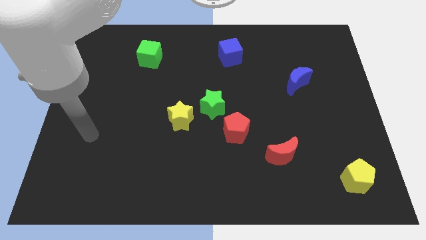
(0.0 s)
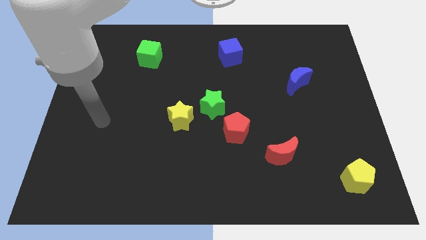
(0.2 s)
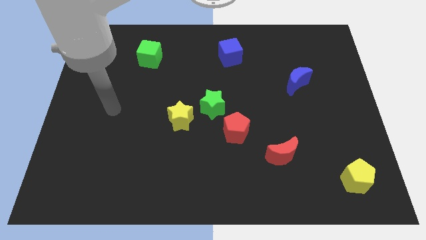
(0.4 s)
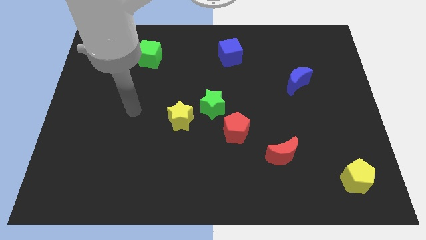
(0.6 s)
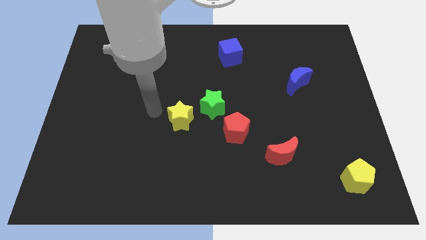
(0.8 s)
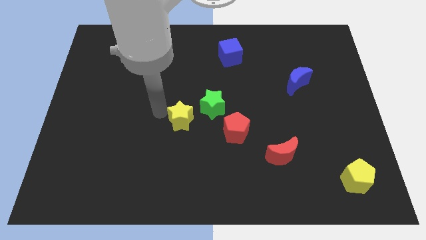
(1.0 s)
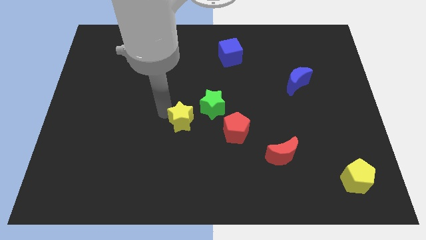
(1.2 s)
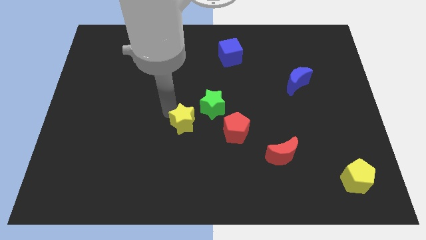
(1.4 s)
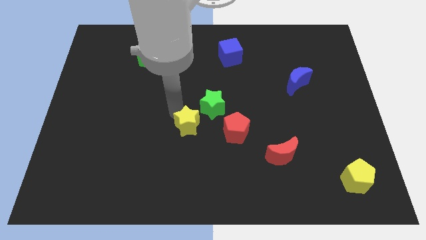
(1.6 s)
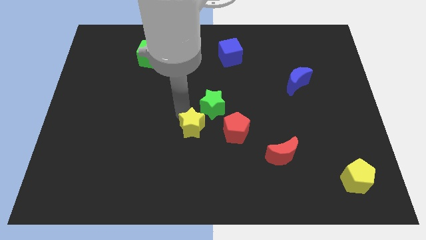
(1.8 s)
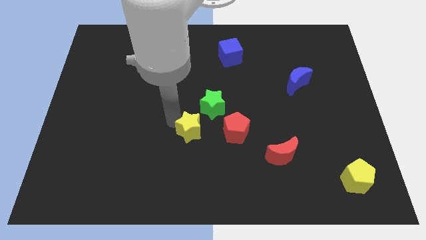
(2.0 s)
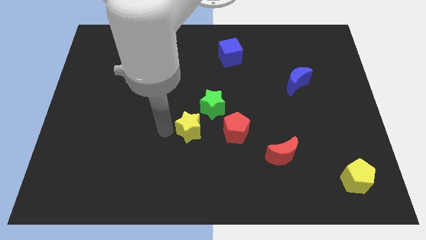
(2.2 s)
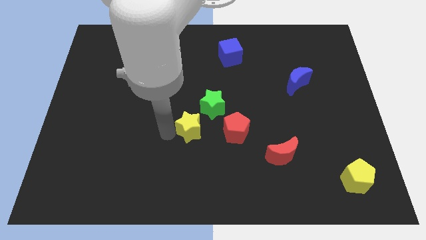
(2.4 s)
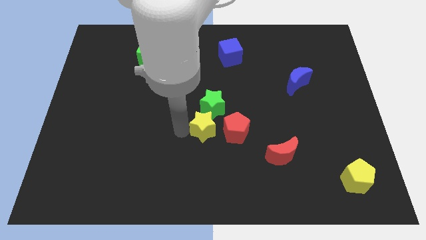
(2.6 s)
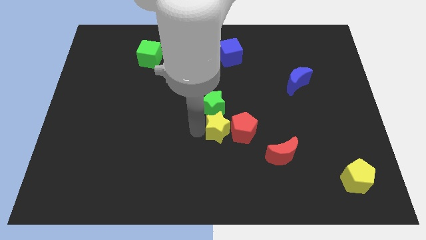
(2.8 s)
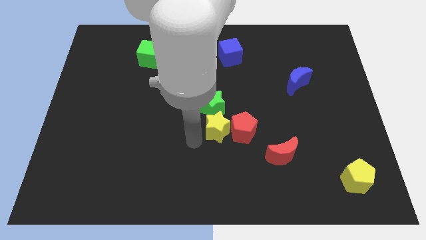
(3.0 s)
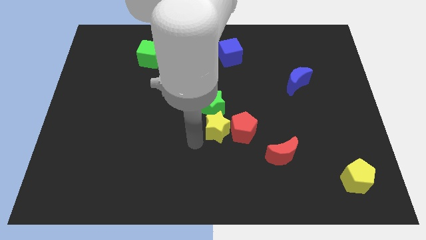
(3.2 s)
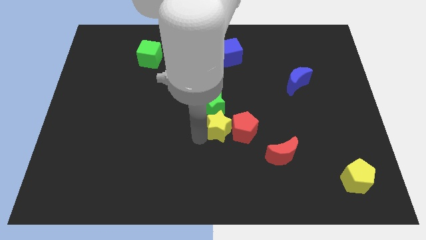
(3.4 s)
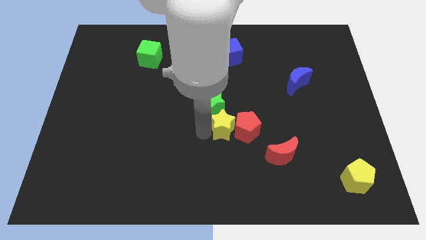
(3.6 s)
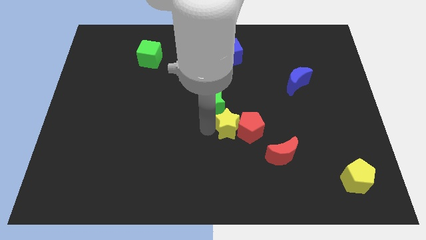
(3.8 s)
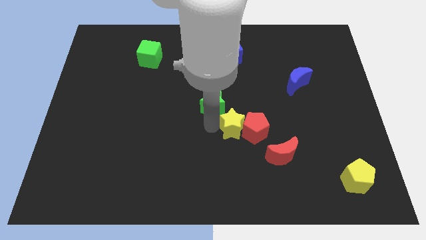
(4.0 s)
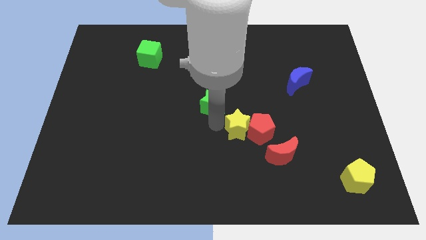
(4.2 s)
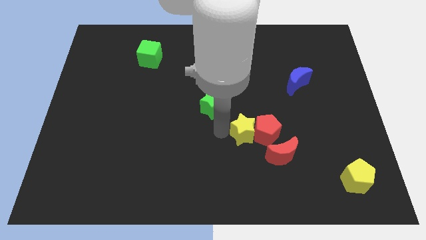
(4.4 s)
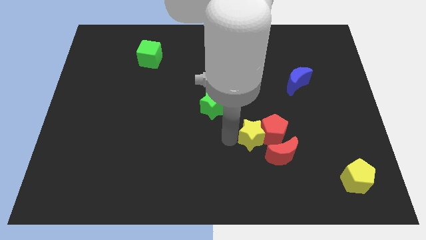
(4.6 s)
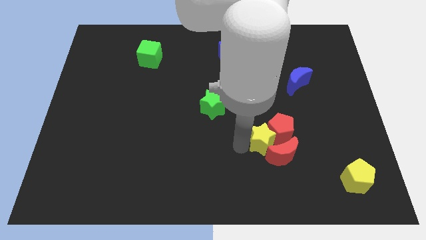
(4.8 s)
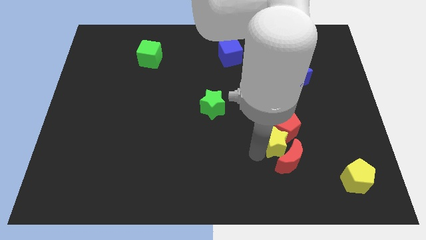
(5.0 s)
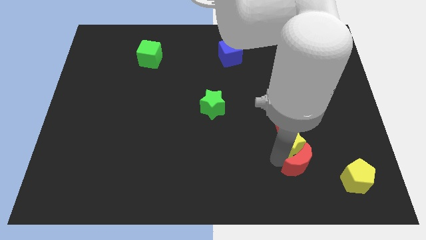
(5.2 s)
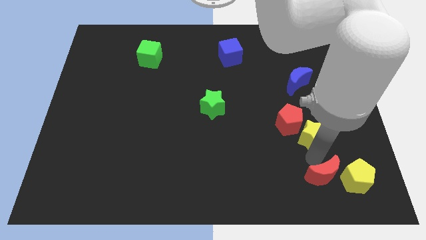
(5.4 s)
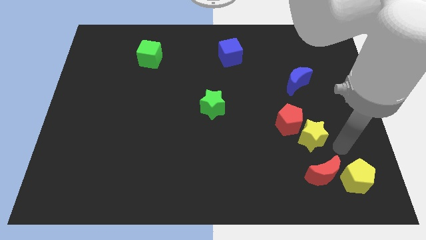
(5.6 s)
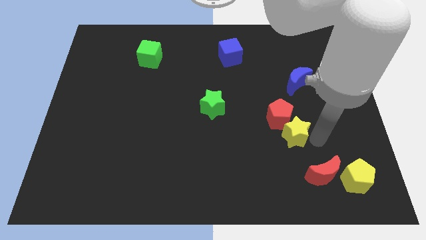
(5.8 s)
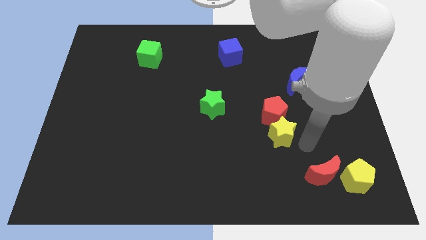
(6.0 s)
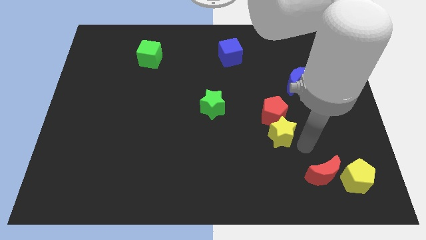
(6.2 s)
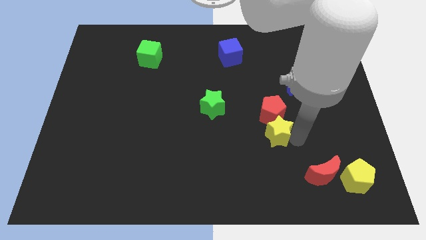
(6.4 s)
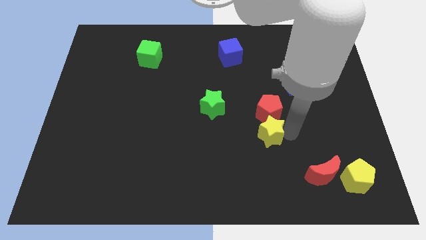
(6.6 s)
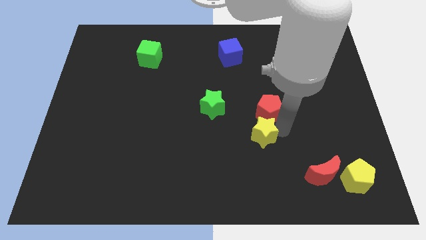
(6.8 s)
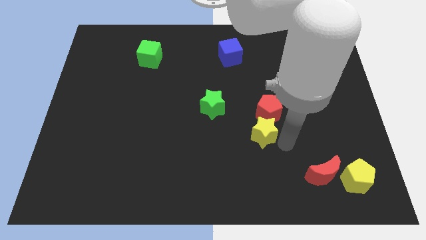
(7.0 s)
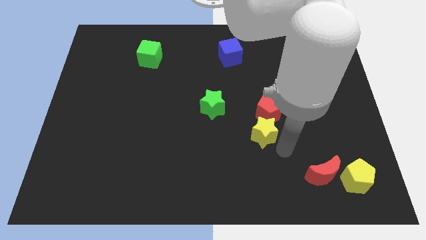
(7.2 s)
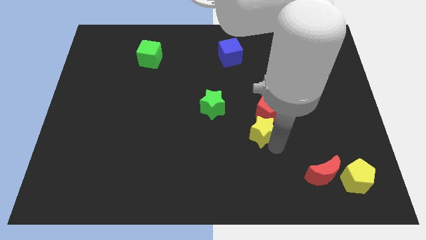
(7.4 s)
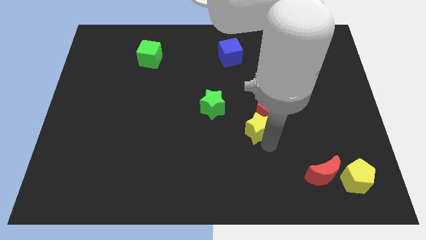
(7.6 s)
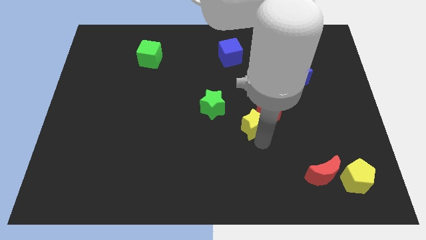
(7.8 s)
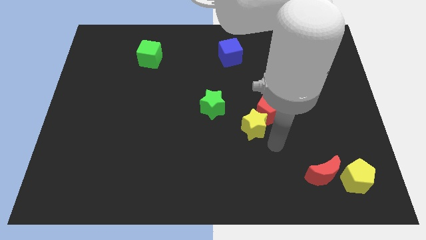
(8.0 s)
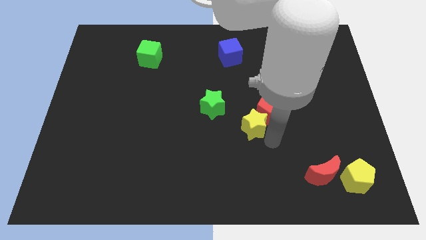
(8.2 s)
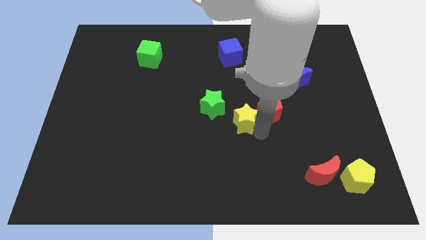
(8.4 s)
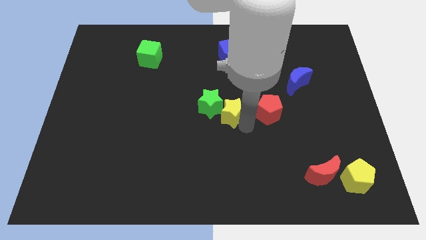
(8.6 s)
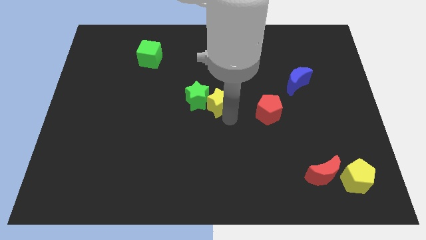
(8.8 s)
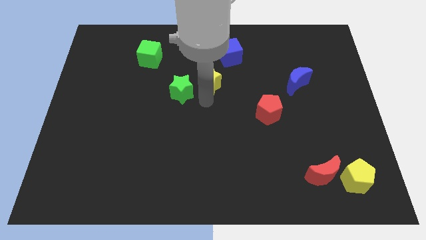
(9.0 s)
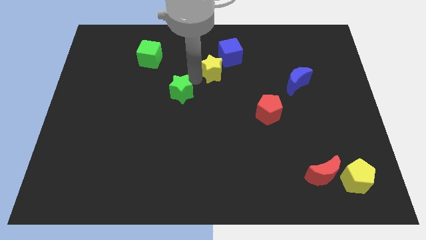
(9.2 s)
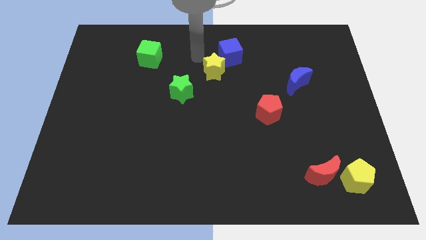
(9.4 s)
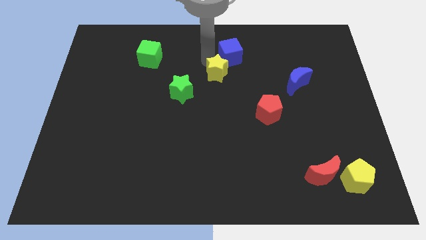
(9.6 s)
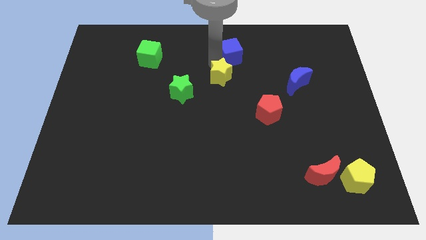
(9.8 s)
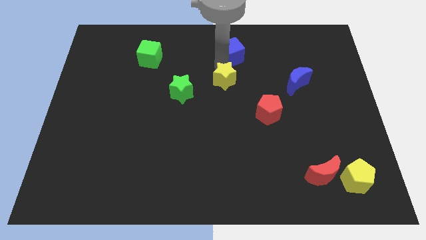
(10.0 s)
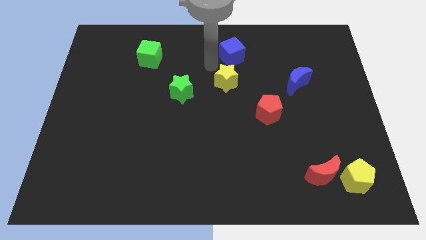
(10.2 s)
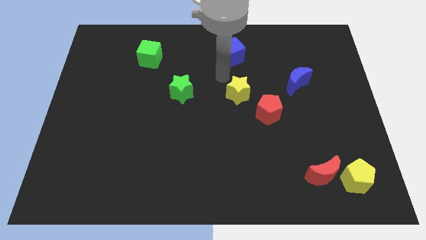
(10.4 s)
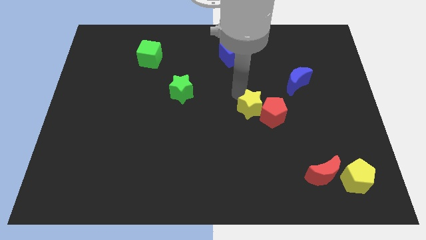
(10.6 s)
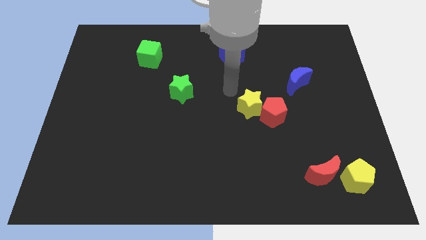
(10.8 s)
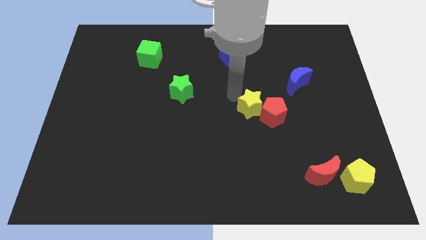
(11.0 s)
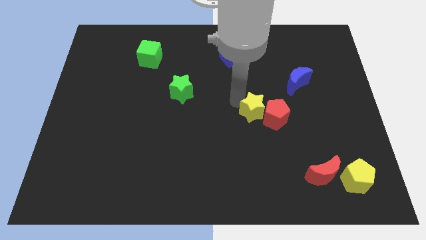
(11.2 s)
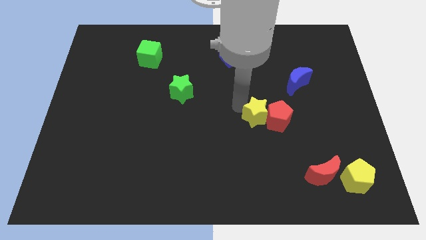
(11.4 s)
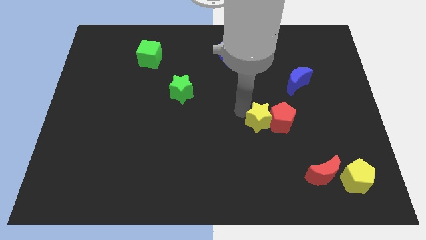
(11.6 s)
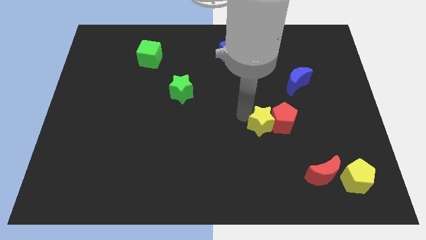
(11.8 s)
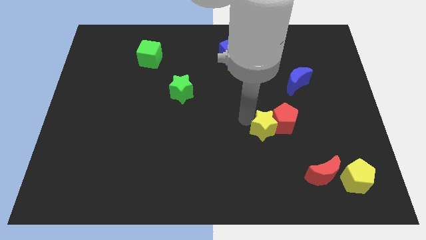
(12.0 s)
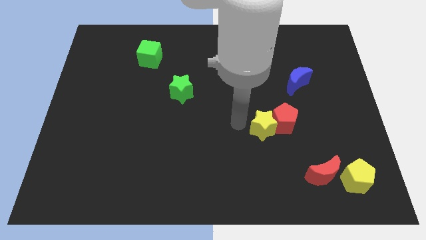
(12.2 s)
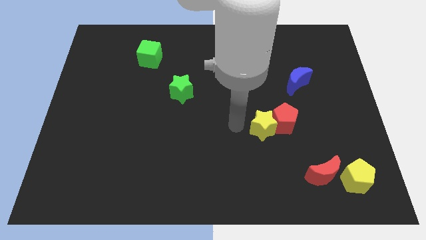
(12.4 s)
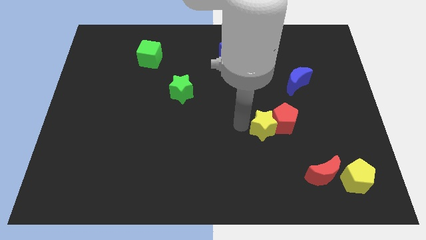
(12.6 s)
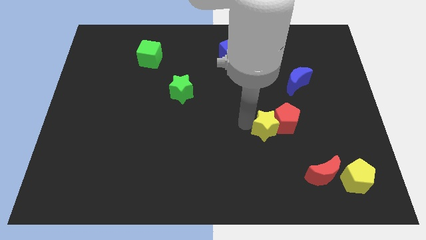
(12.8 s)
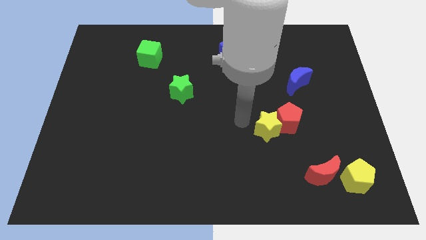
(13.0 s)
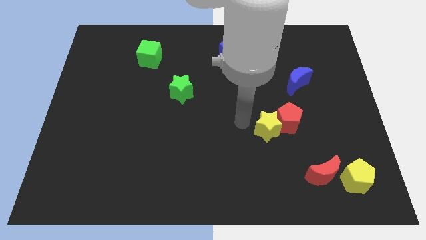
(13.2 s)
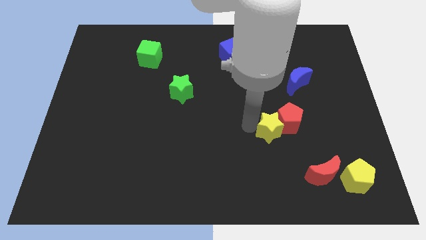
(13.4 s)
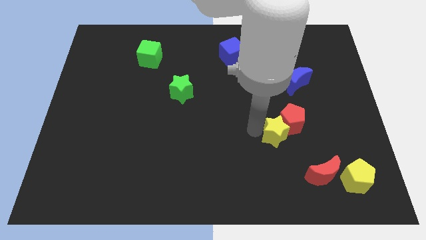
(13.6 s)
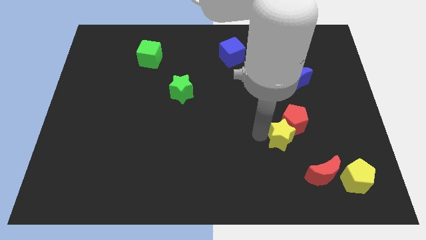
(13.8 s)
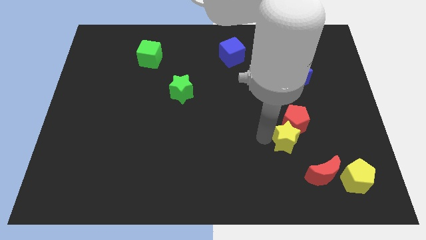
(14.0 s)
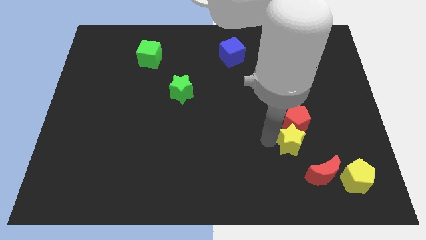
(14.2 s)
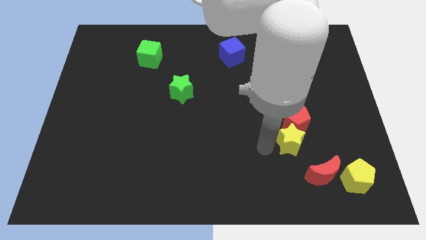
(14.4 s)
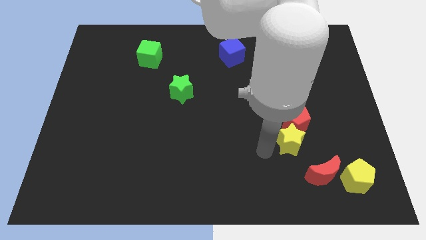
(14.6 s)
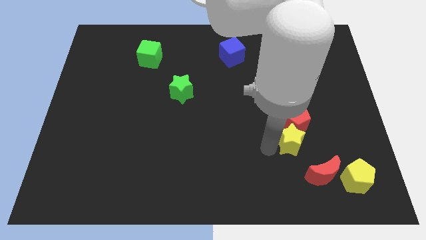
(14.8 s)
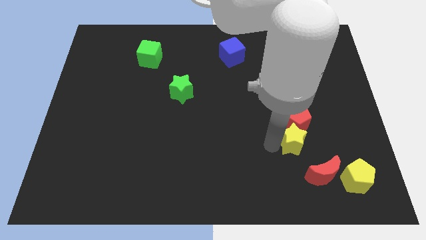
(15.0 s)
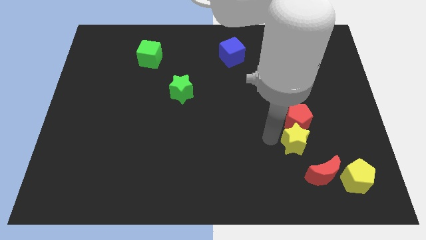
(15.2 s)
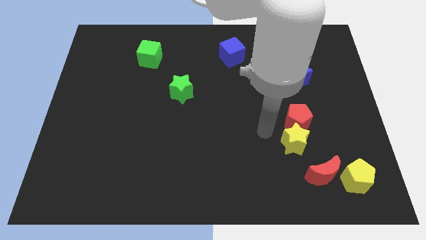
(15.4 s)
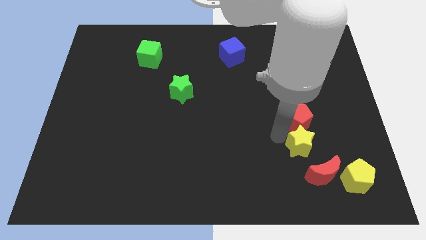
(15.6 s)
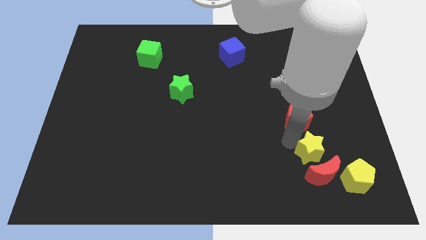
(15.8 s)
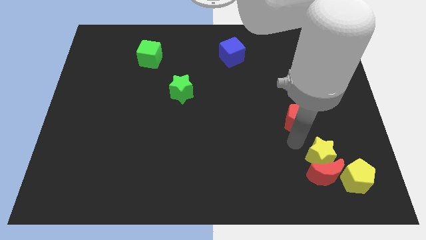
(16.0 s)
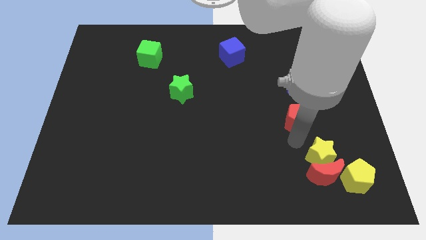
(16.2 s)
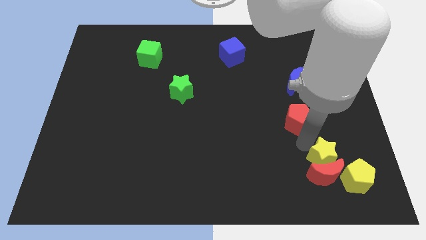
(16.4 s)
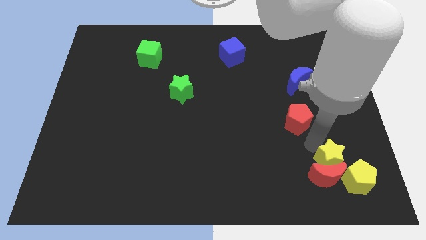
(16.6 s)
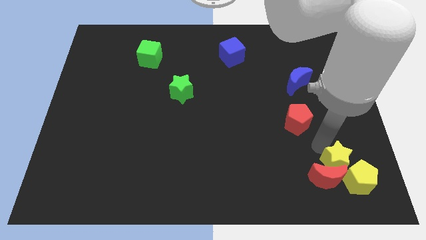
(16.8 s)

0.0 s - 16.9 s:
slide the yellow star to the yellow pentagon
